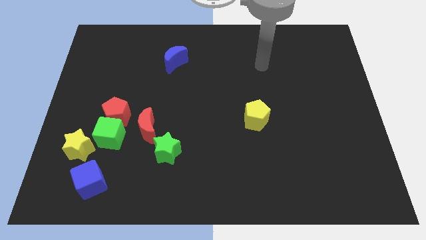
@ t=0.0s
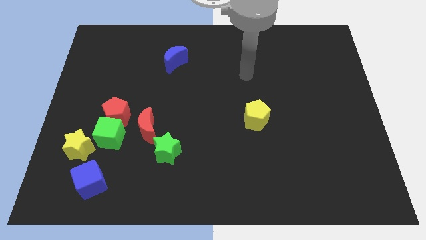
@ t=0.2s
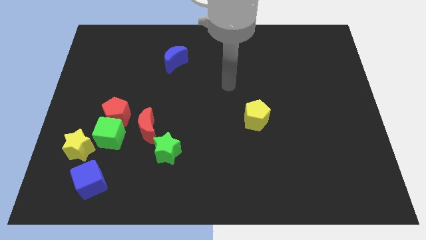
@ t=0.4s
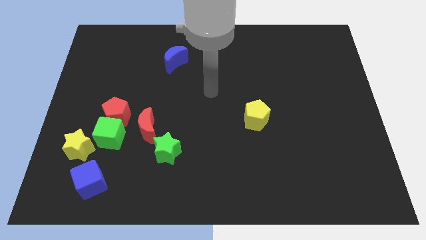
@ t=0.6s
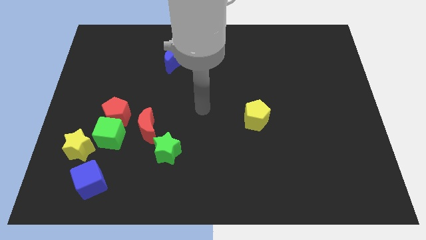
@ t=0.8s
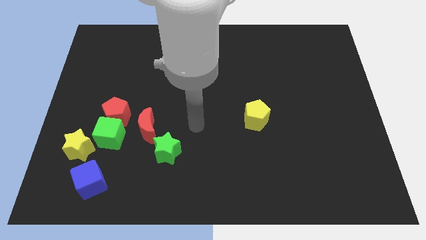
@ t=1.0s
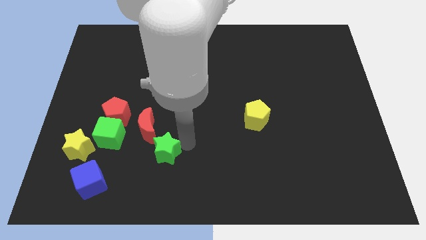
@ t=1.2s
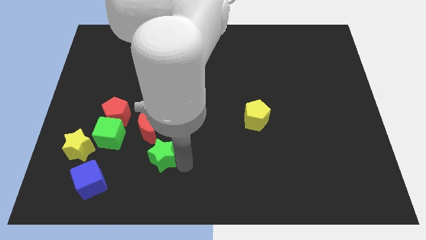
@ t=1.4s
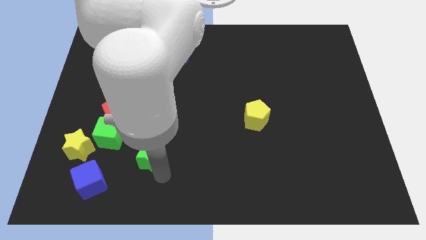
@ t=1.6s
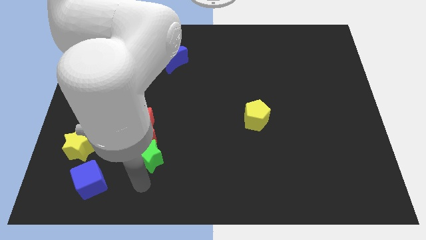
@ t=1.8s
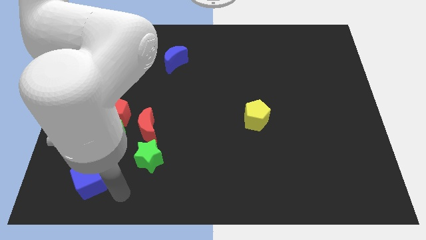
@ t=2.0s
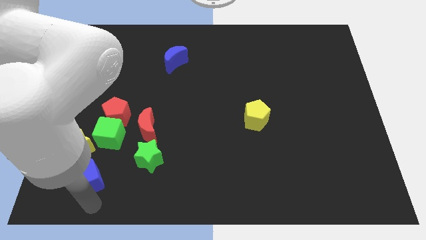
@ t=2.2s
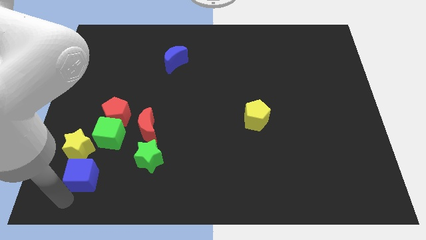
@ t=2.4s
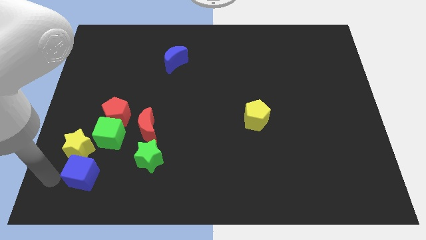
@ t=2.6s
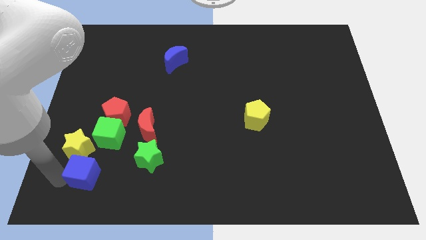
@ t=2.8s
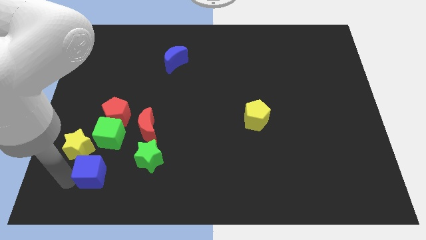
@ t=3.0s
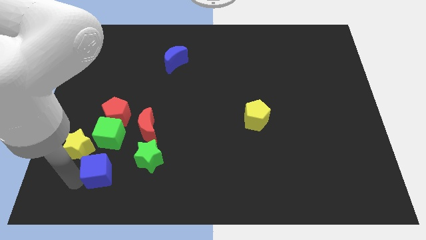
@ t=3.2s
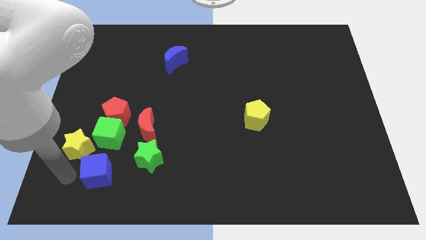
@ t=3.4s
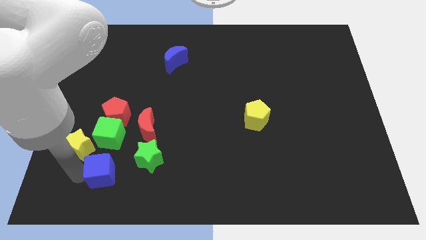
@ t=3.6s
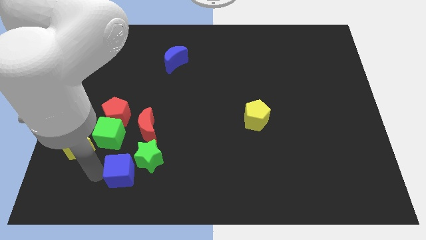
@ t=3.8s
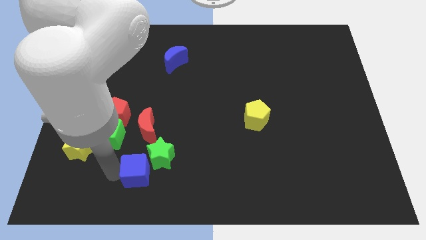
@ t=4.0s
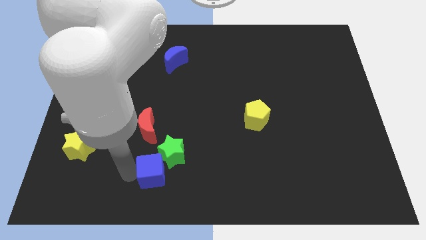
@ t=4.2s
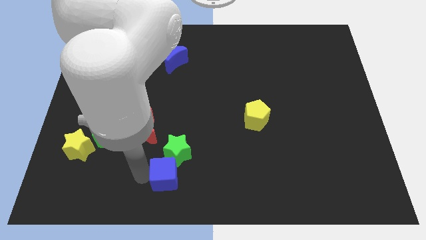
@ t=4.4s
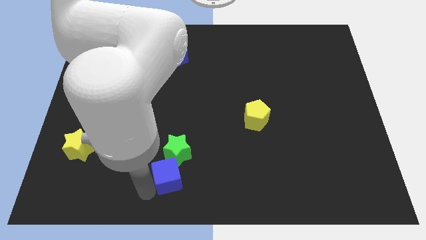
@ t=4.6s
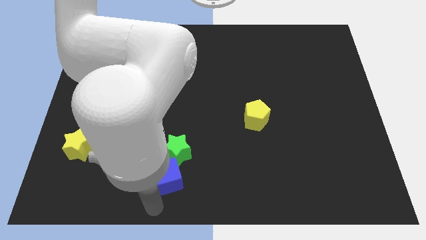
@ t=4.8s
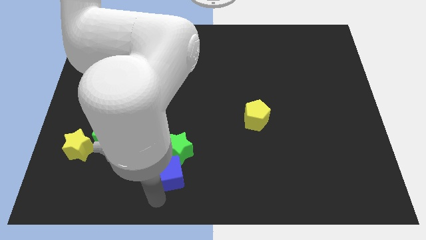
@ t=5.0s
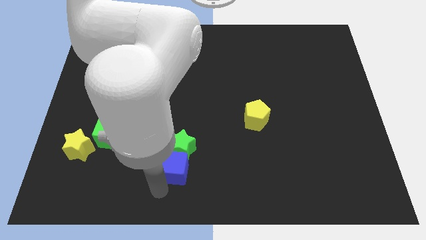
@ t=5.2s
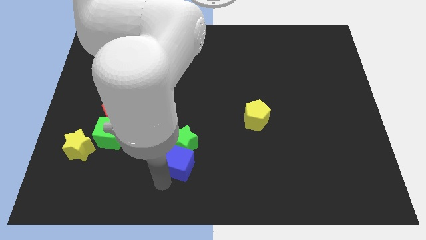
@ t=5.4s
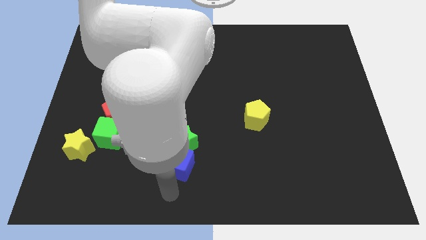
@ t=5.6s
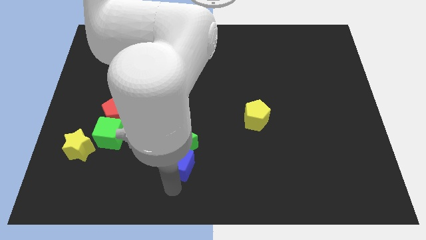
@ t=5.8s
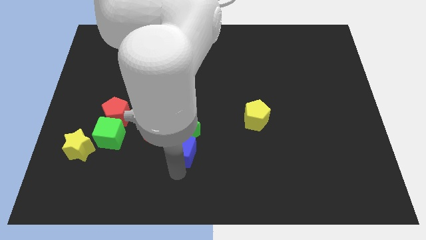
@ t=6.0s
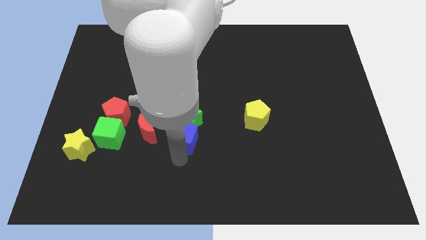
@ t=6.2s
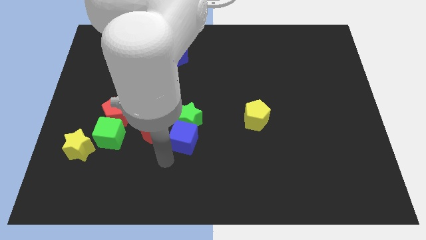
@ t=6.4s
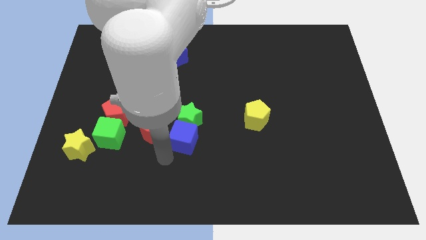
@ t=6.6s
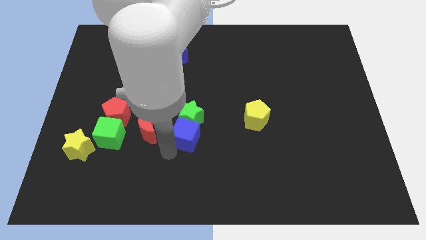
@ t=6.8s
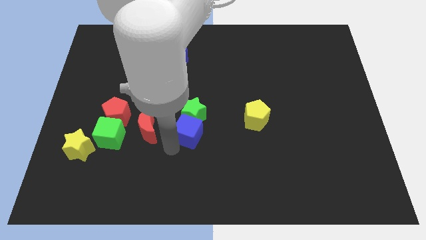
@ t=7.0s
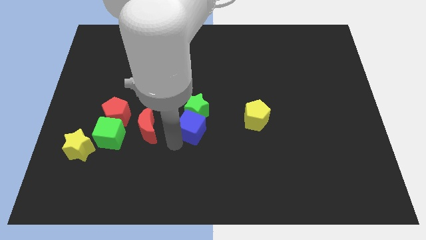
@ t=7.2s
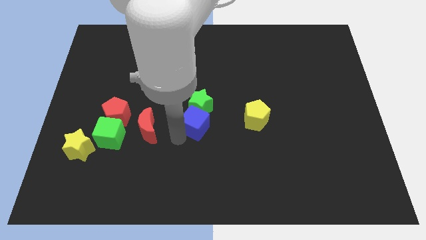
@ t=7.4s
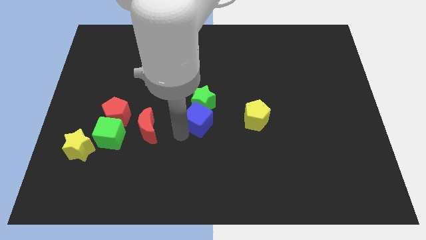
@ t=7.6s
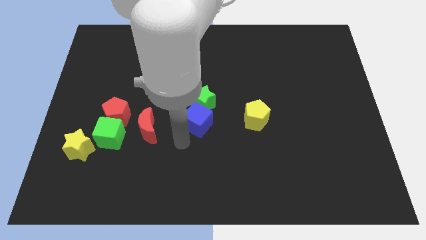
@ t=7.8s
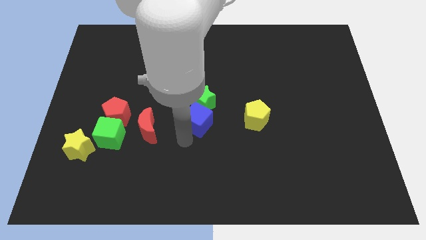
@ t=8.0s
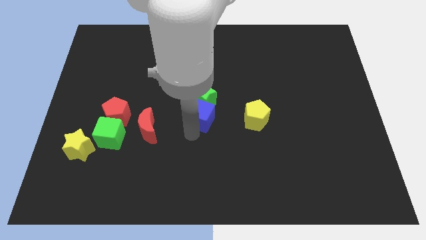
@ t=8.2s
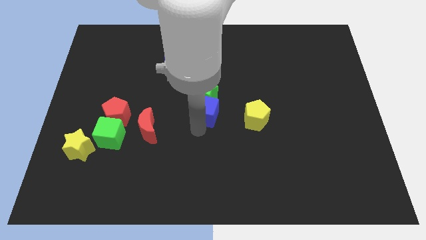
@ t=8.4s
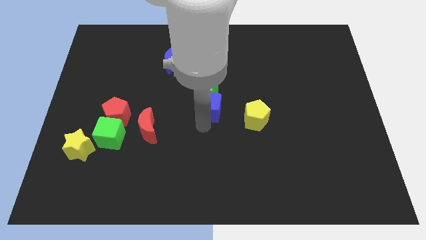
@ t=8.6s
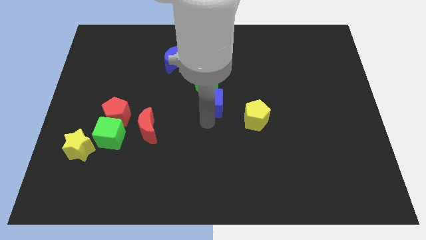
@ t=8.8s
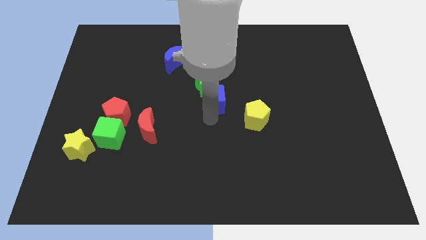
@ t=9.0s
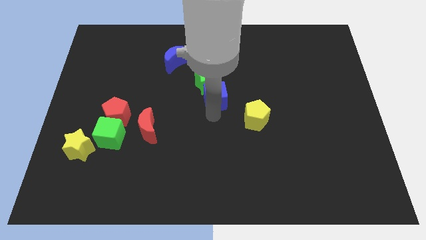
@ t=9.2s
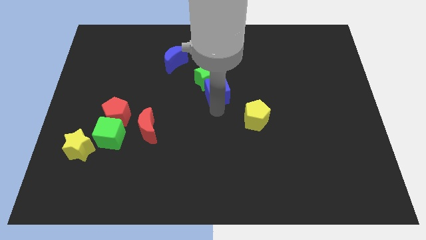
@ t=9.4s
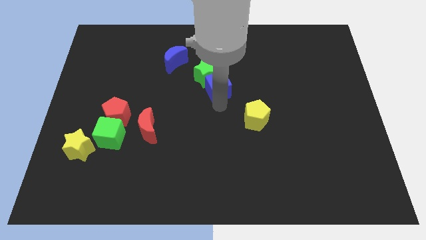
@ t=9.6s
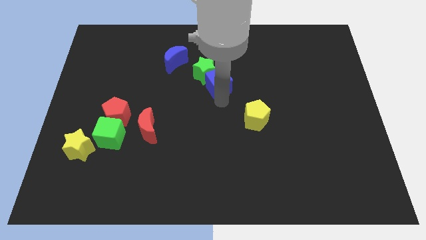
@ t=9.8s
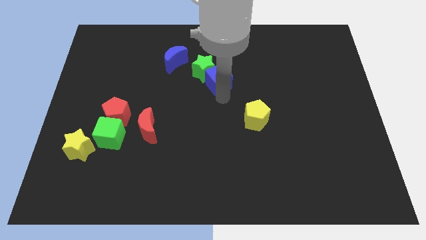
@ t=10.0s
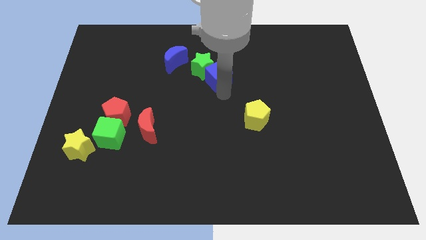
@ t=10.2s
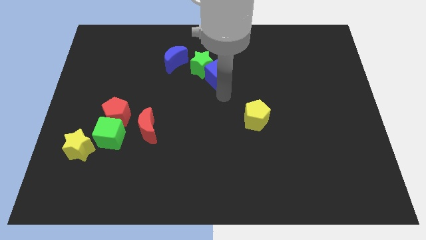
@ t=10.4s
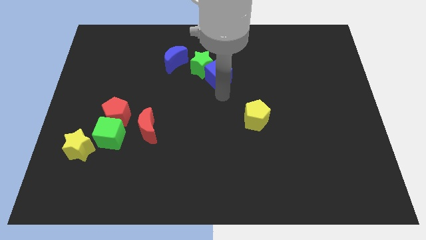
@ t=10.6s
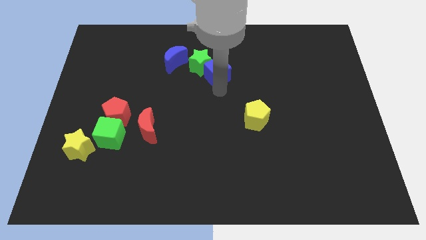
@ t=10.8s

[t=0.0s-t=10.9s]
put the blue cube to the right of the blue moon

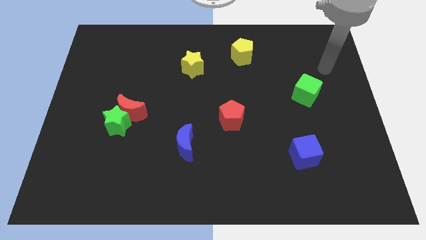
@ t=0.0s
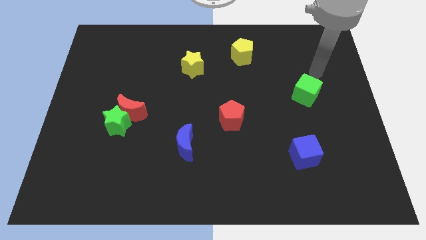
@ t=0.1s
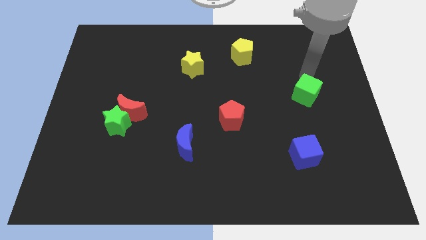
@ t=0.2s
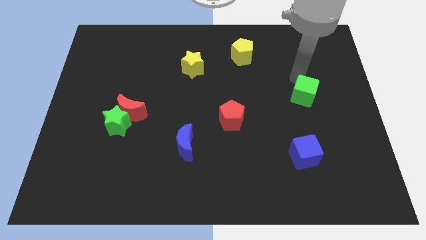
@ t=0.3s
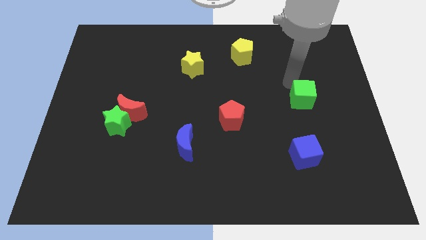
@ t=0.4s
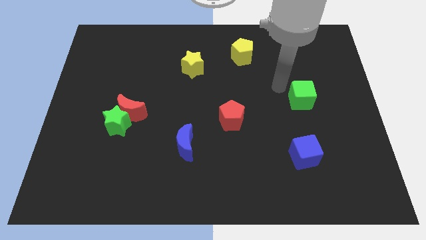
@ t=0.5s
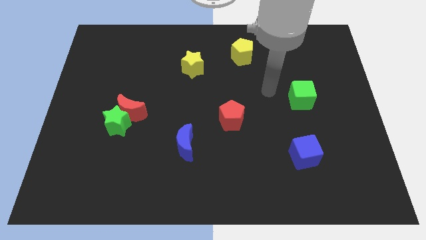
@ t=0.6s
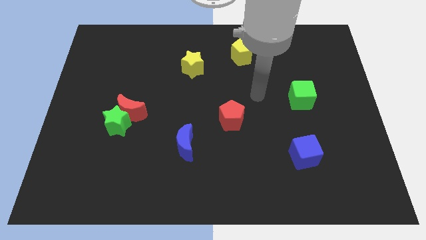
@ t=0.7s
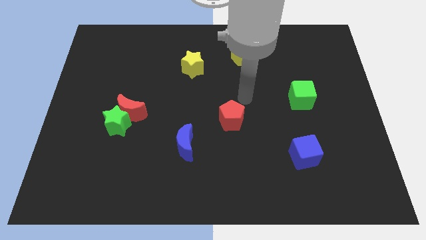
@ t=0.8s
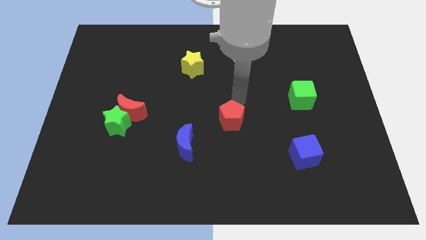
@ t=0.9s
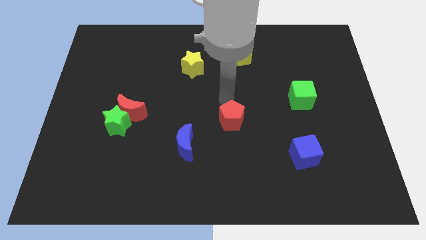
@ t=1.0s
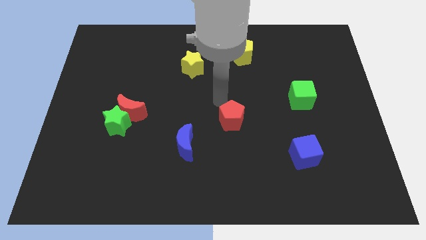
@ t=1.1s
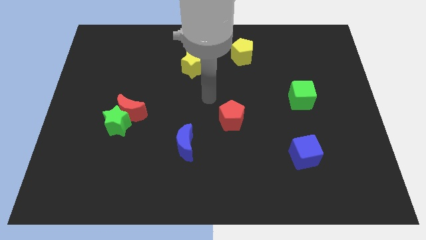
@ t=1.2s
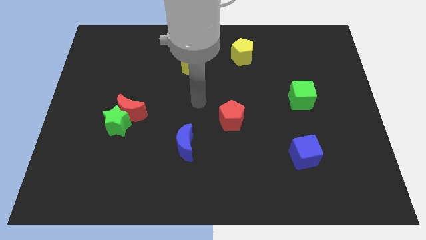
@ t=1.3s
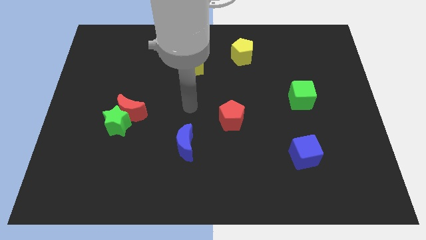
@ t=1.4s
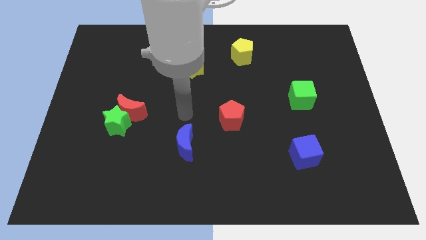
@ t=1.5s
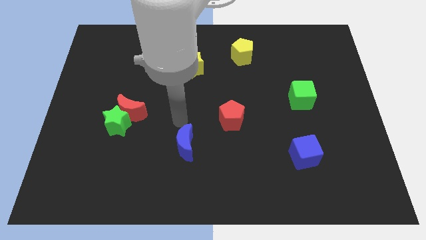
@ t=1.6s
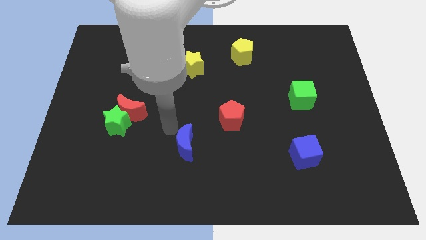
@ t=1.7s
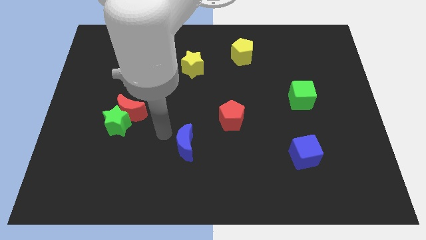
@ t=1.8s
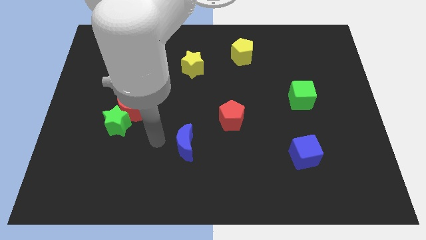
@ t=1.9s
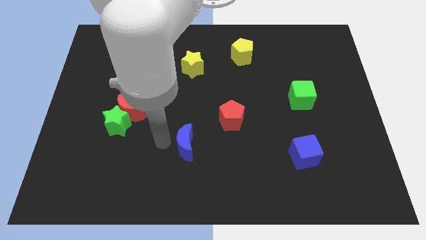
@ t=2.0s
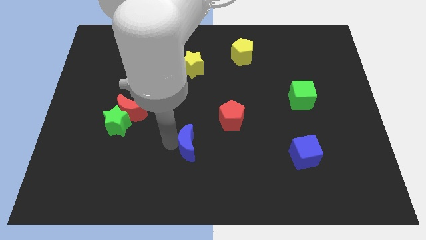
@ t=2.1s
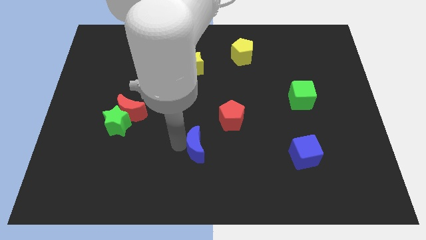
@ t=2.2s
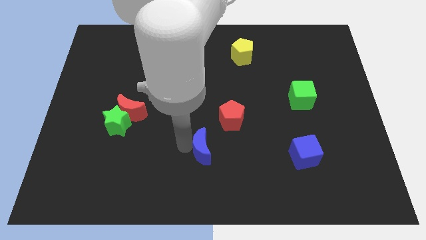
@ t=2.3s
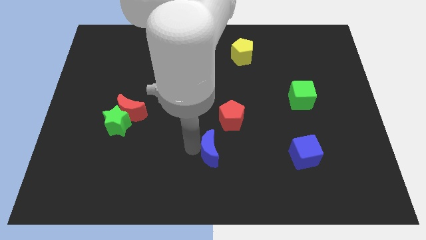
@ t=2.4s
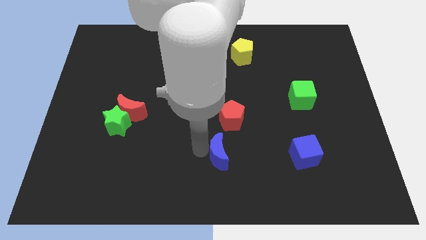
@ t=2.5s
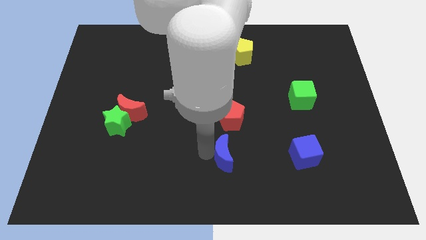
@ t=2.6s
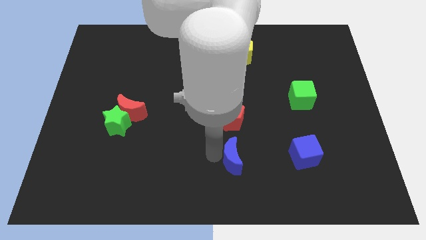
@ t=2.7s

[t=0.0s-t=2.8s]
slide the blue moon to the left of the blue cube
